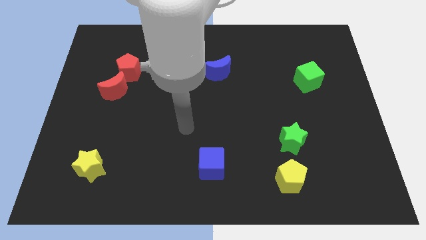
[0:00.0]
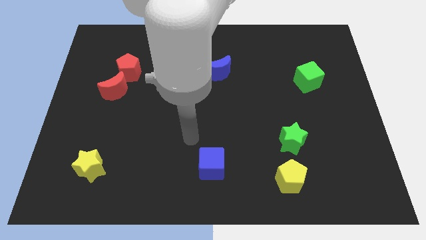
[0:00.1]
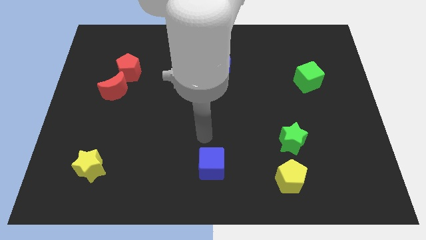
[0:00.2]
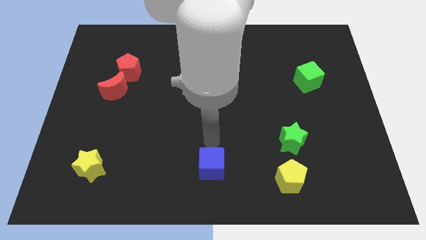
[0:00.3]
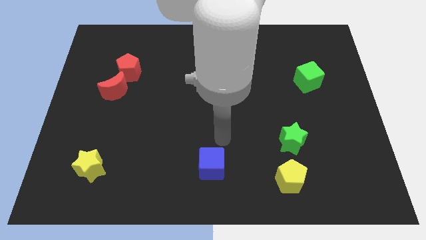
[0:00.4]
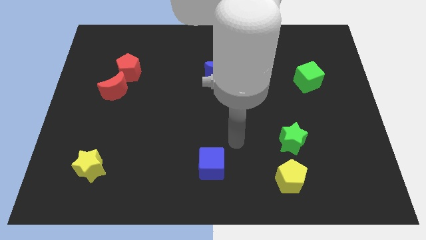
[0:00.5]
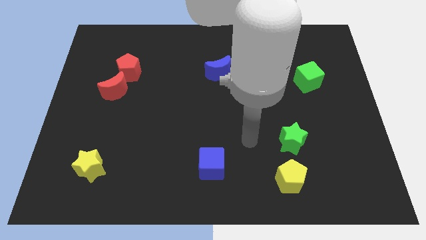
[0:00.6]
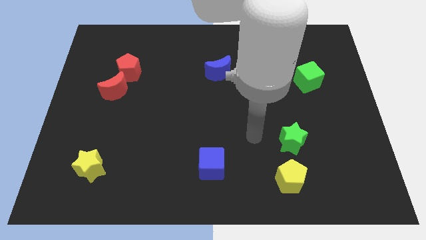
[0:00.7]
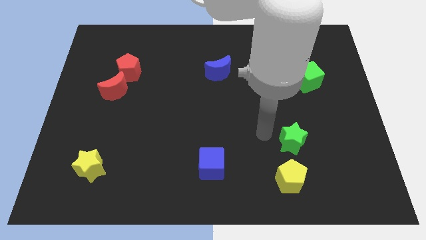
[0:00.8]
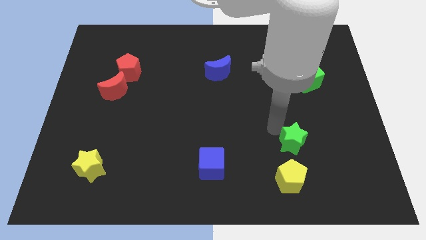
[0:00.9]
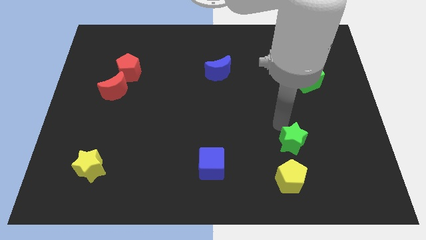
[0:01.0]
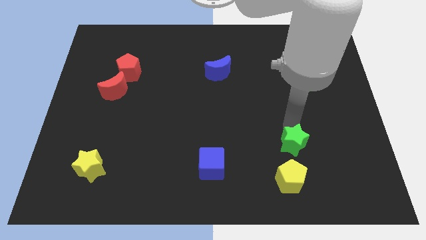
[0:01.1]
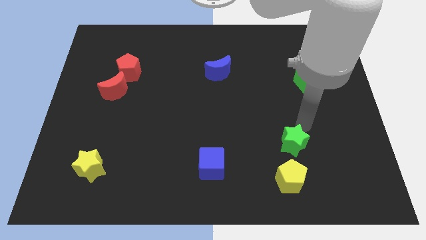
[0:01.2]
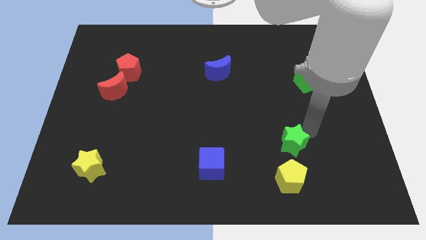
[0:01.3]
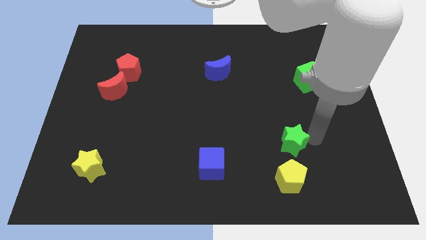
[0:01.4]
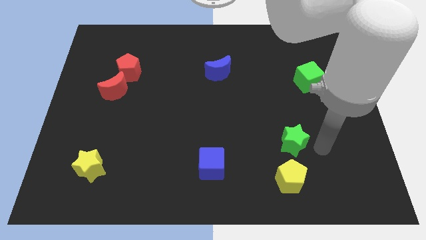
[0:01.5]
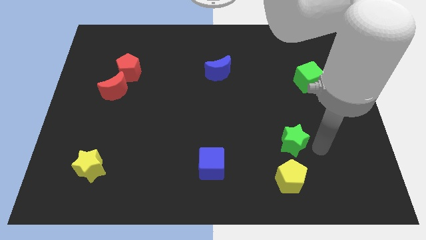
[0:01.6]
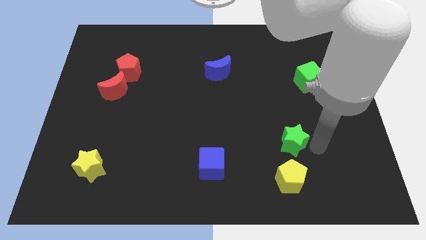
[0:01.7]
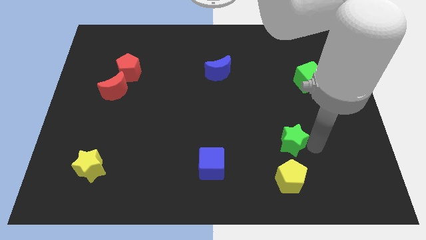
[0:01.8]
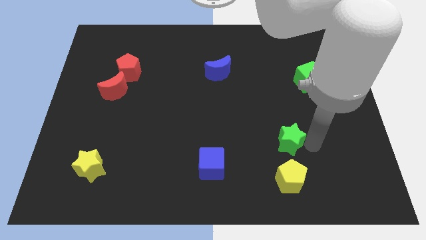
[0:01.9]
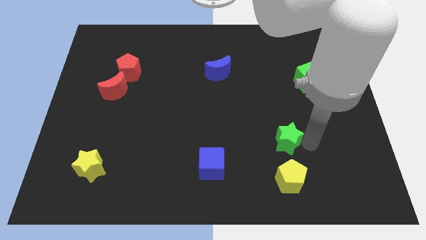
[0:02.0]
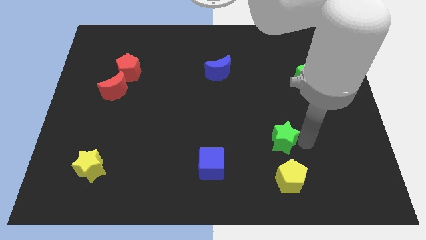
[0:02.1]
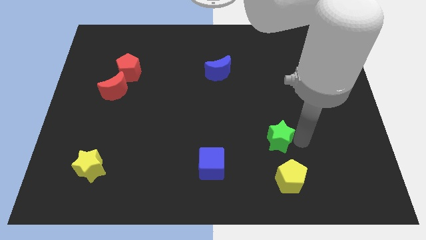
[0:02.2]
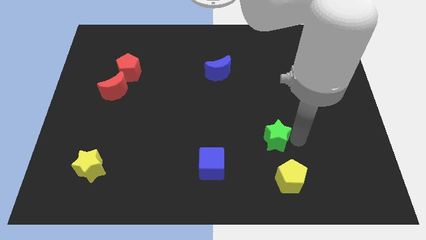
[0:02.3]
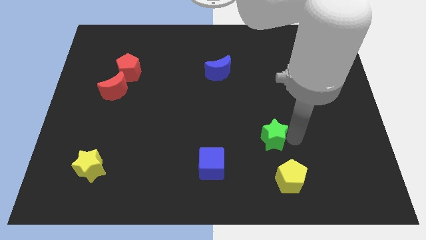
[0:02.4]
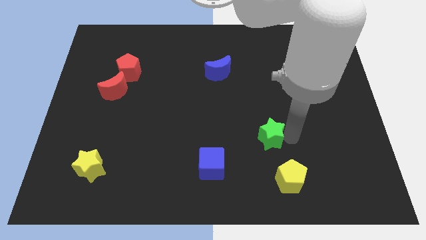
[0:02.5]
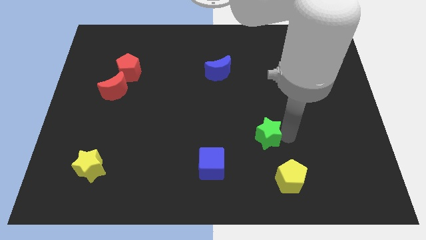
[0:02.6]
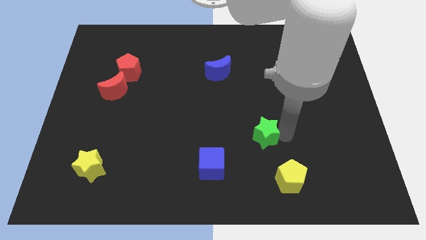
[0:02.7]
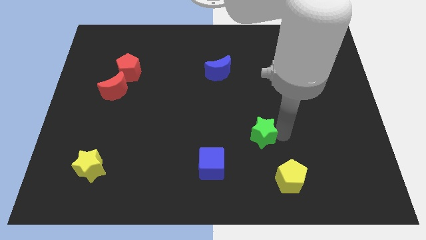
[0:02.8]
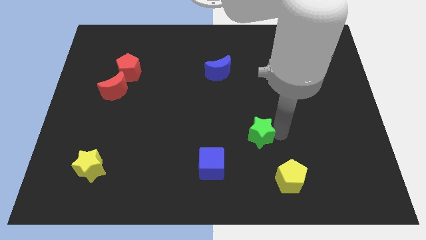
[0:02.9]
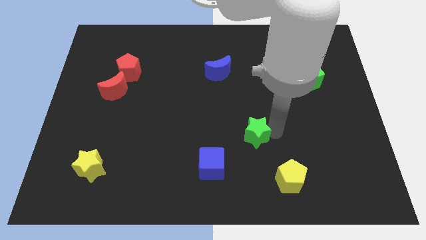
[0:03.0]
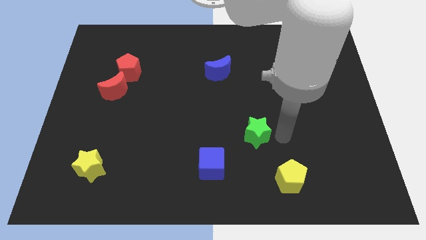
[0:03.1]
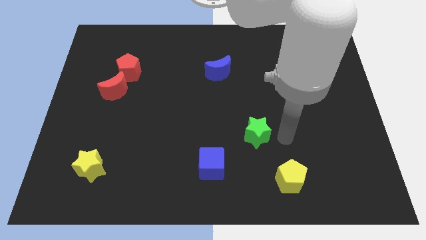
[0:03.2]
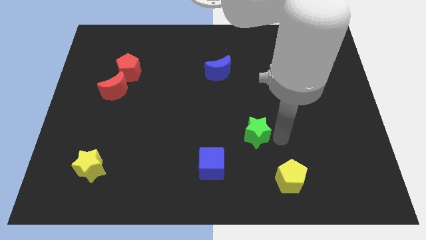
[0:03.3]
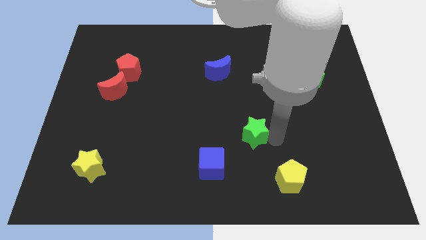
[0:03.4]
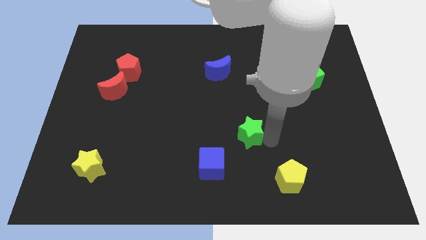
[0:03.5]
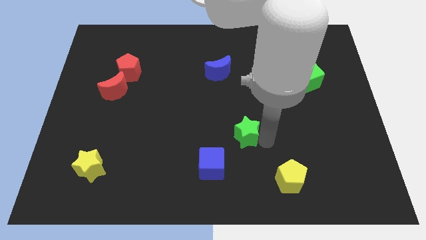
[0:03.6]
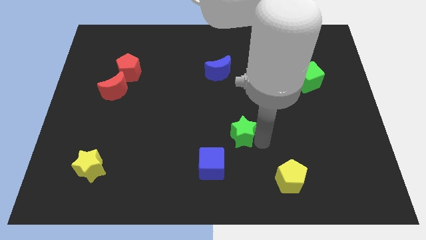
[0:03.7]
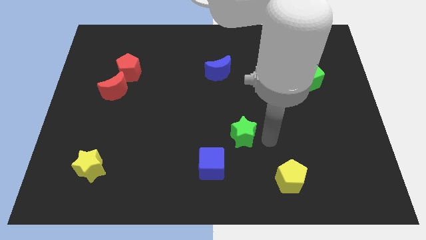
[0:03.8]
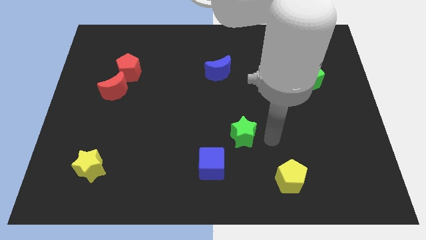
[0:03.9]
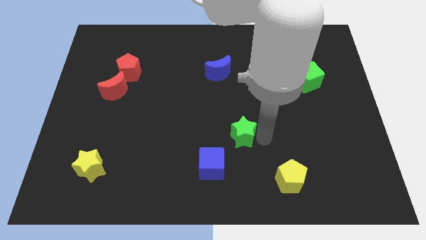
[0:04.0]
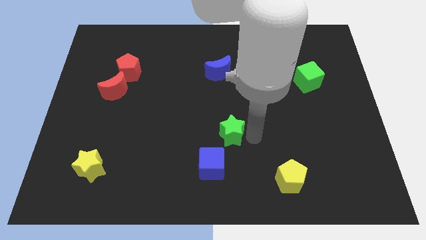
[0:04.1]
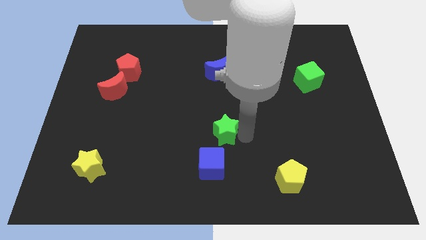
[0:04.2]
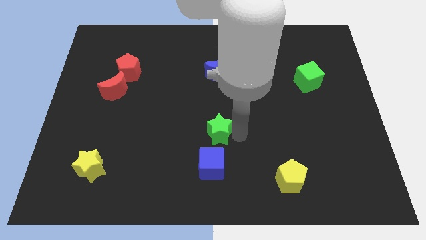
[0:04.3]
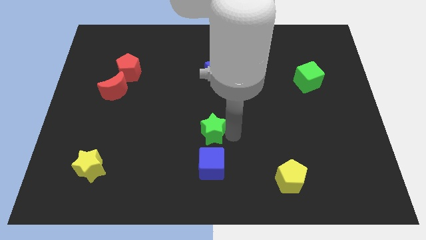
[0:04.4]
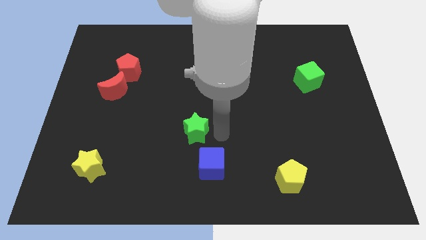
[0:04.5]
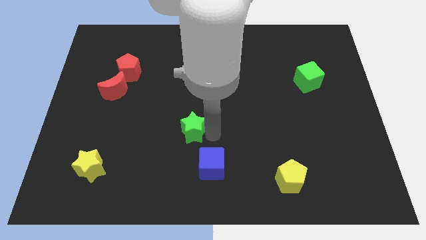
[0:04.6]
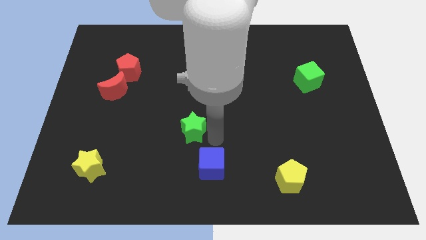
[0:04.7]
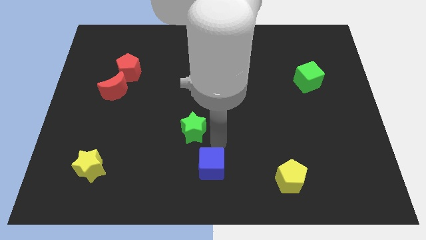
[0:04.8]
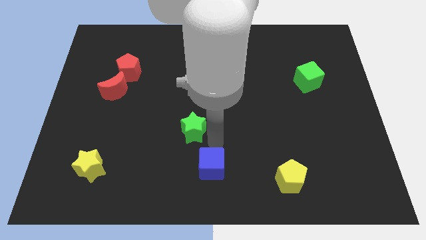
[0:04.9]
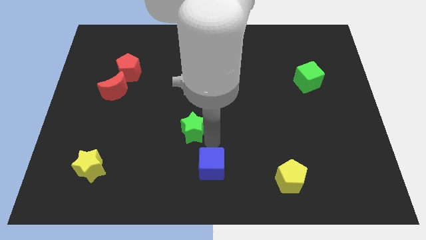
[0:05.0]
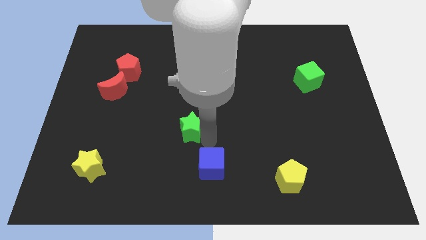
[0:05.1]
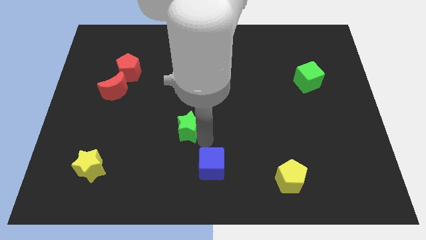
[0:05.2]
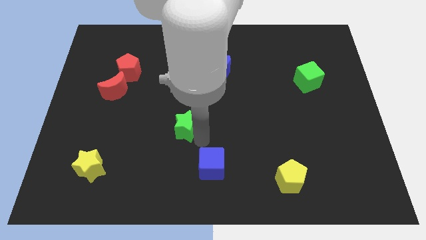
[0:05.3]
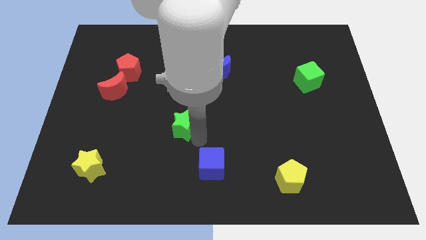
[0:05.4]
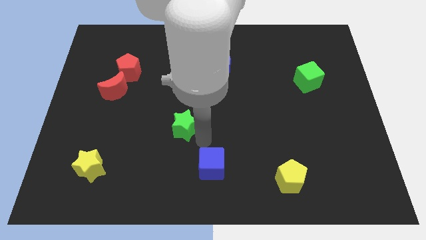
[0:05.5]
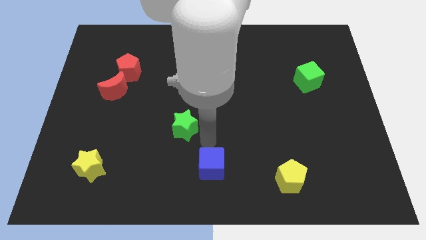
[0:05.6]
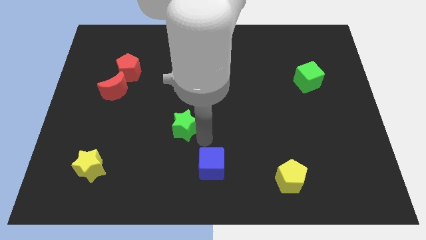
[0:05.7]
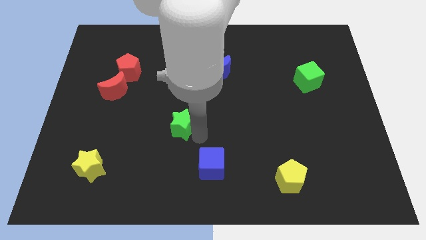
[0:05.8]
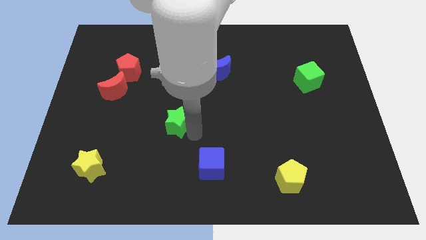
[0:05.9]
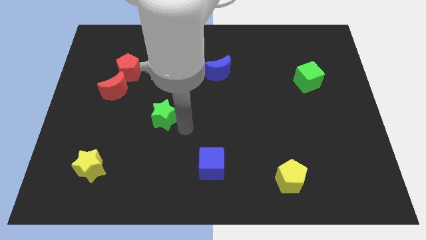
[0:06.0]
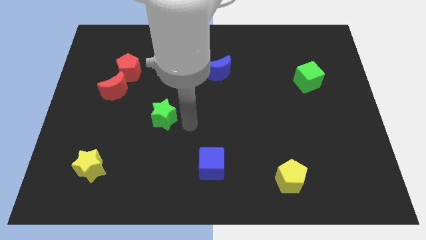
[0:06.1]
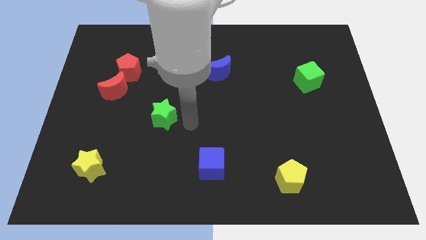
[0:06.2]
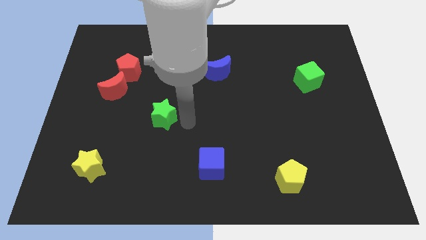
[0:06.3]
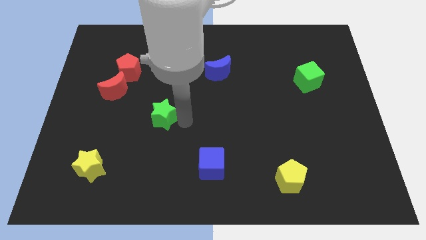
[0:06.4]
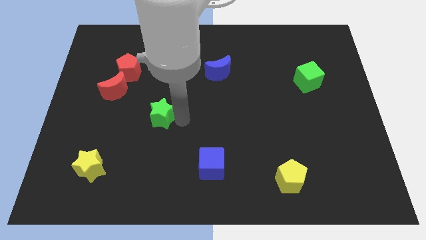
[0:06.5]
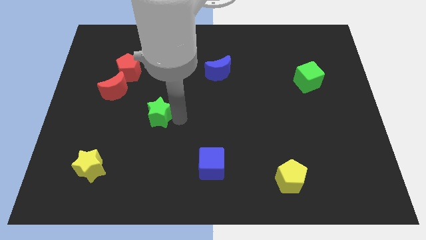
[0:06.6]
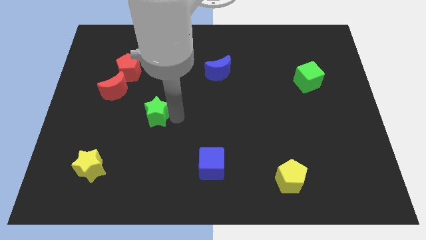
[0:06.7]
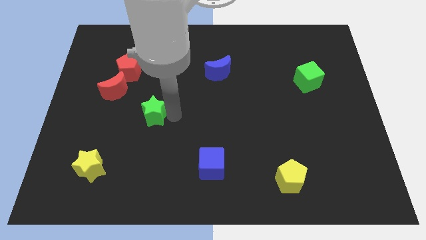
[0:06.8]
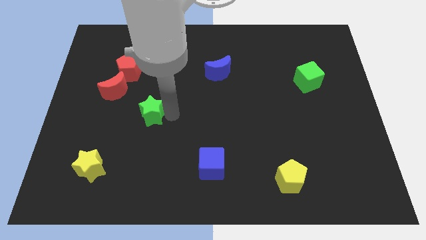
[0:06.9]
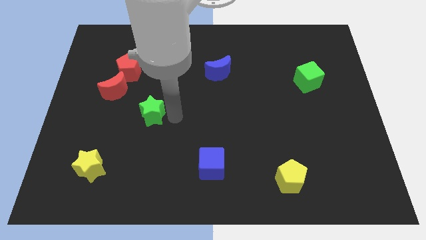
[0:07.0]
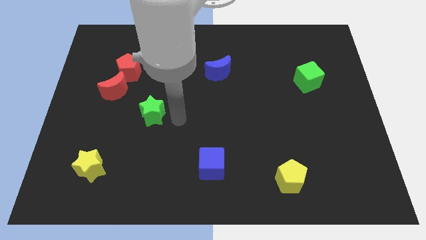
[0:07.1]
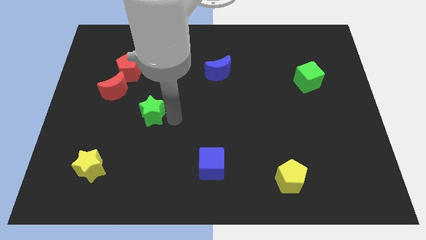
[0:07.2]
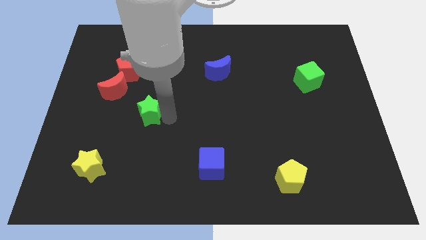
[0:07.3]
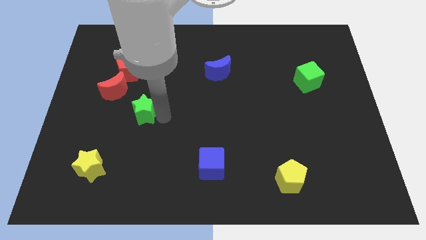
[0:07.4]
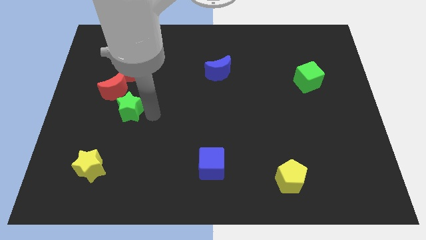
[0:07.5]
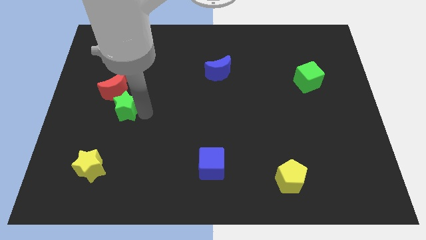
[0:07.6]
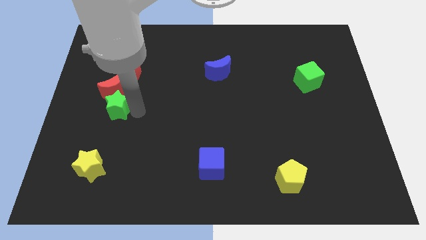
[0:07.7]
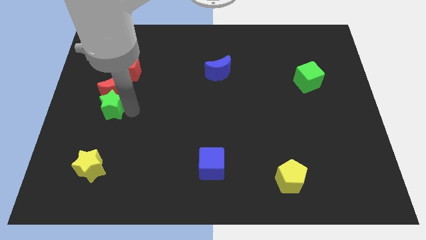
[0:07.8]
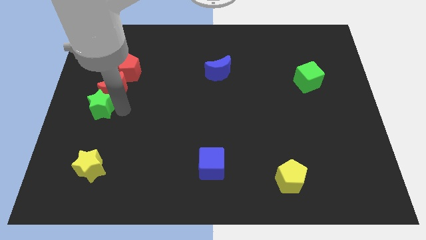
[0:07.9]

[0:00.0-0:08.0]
put the green star to the left side of the board
